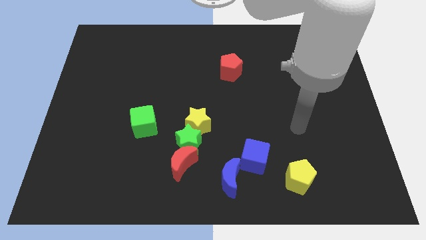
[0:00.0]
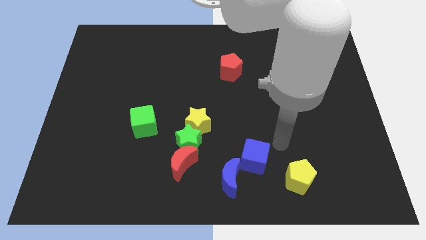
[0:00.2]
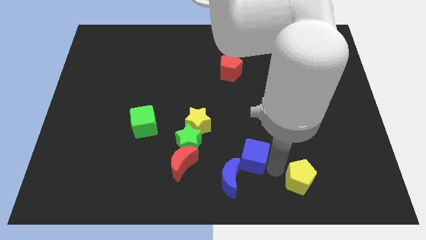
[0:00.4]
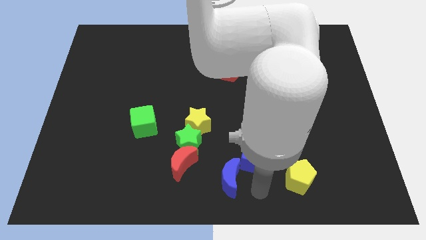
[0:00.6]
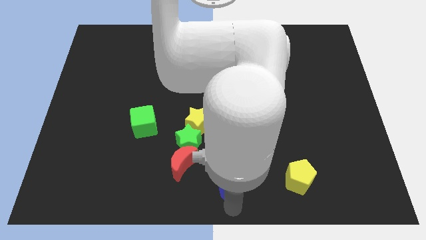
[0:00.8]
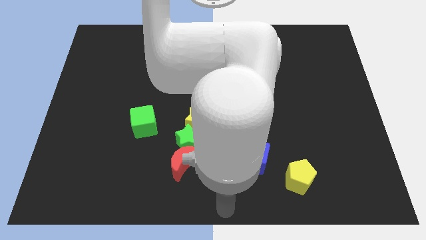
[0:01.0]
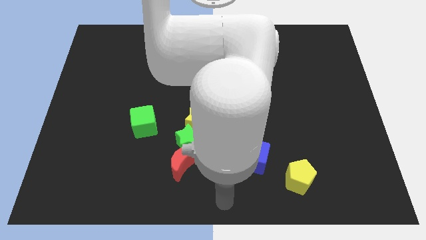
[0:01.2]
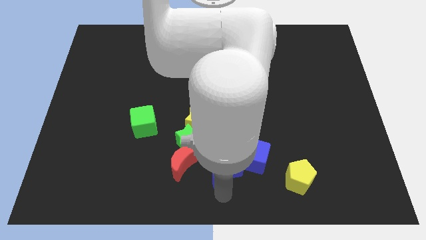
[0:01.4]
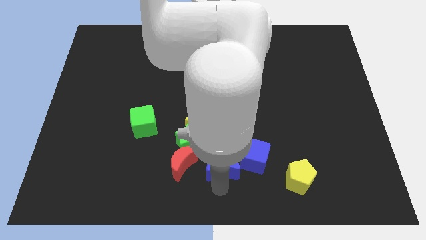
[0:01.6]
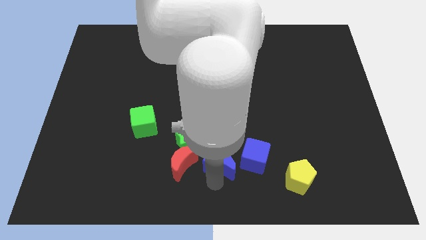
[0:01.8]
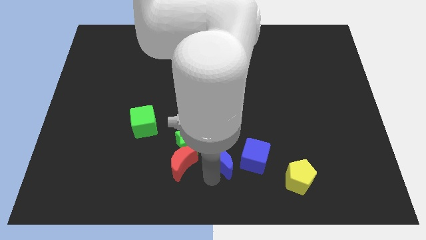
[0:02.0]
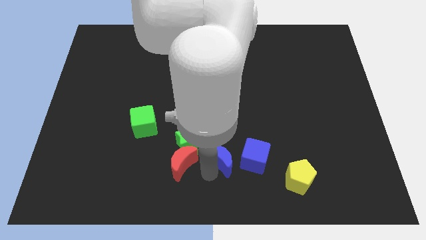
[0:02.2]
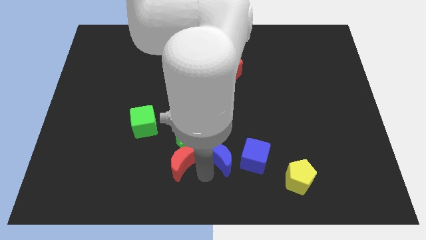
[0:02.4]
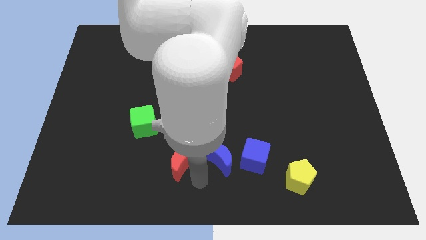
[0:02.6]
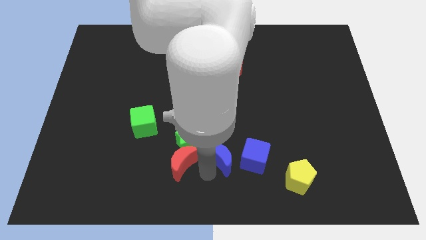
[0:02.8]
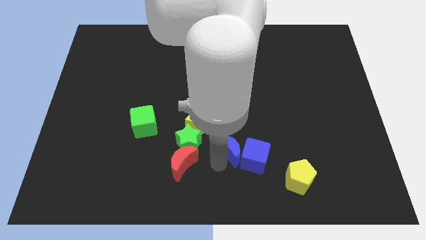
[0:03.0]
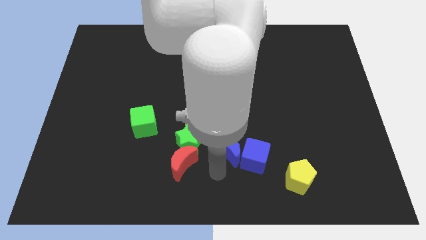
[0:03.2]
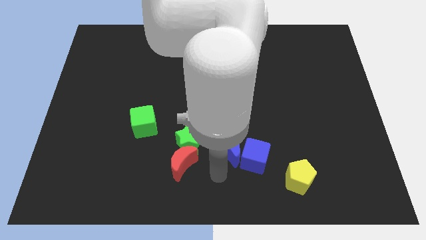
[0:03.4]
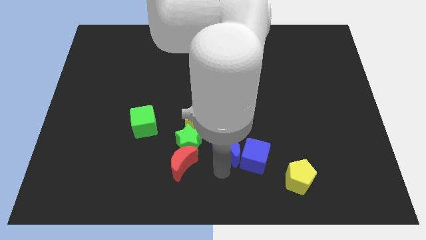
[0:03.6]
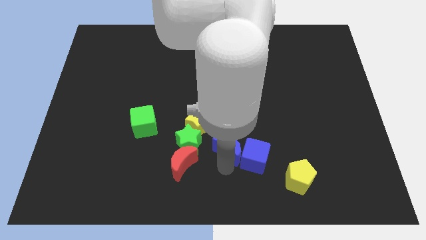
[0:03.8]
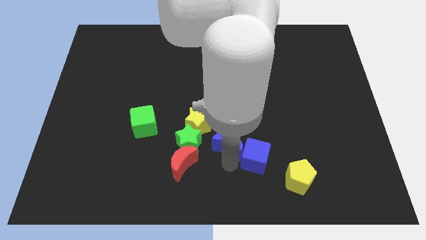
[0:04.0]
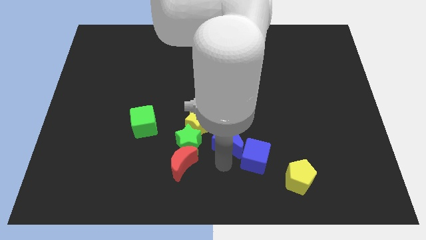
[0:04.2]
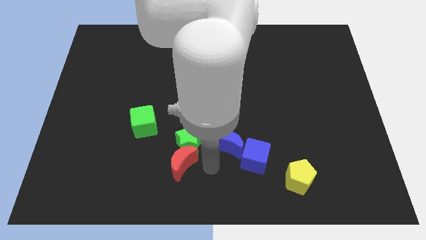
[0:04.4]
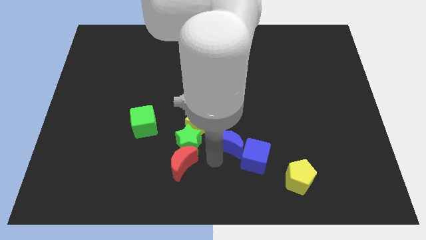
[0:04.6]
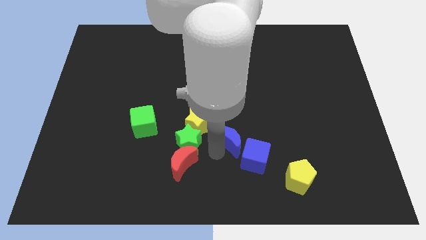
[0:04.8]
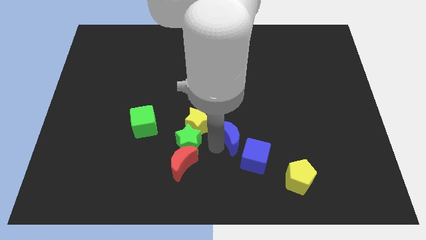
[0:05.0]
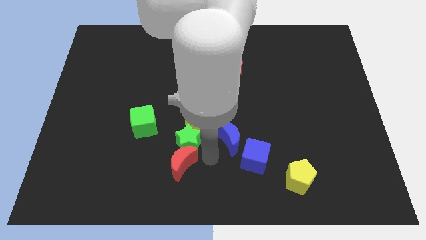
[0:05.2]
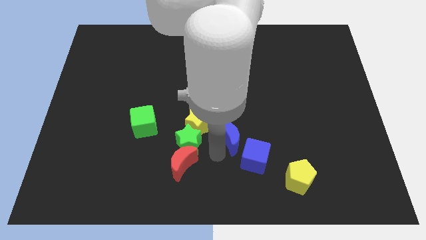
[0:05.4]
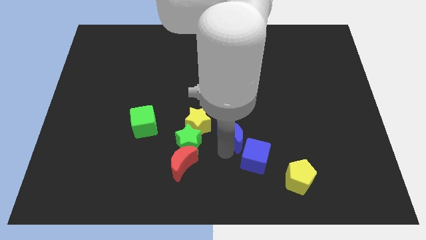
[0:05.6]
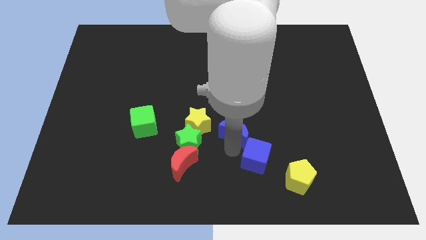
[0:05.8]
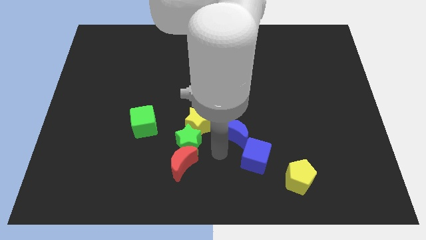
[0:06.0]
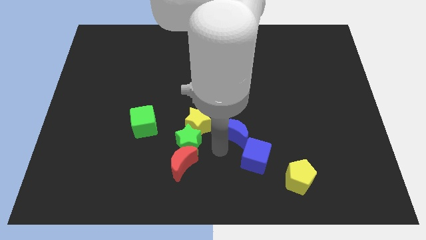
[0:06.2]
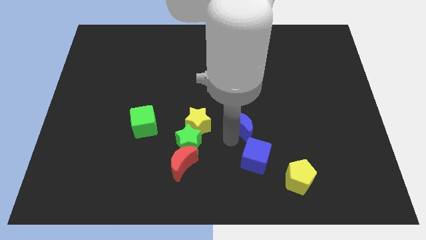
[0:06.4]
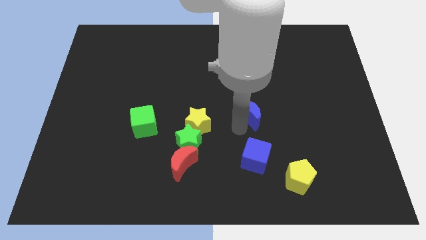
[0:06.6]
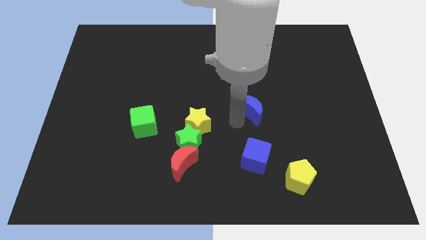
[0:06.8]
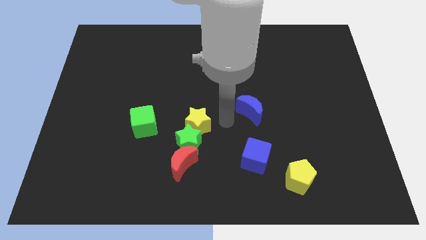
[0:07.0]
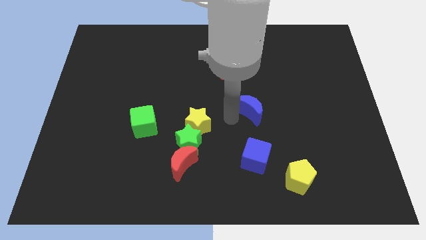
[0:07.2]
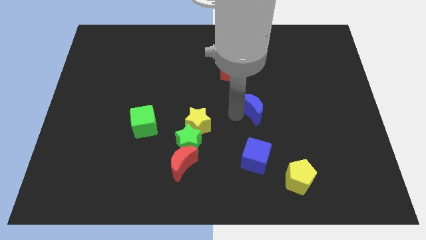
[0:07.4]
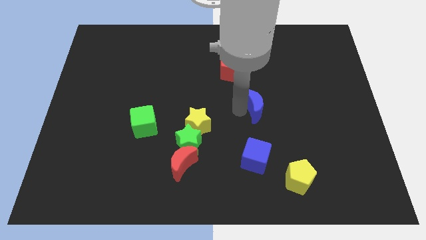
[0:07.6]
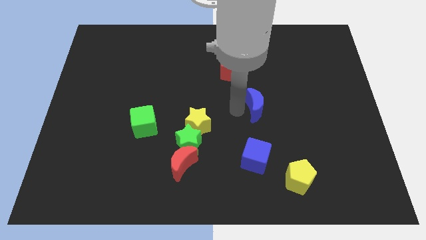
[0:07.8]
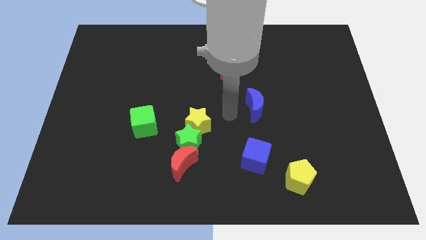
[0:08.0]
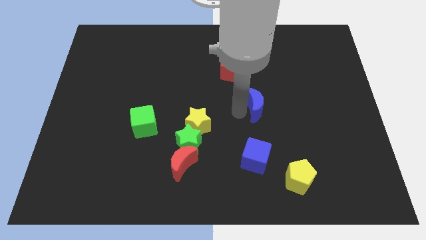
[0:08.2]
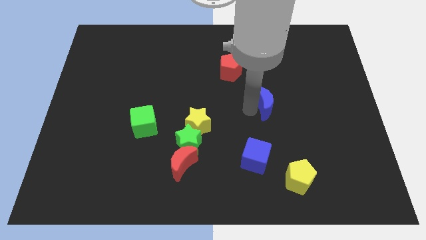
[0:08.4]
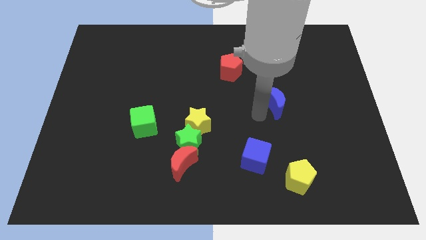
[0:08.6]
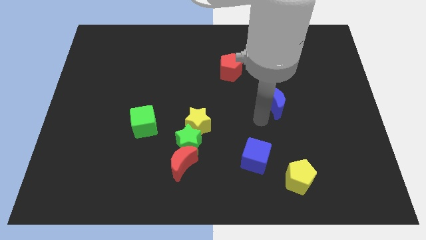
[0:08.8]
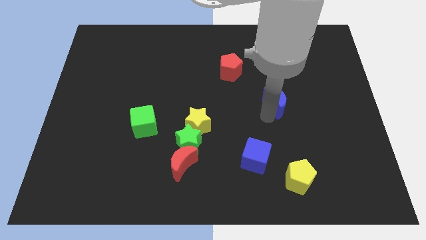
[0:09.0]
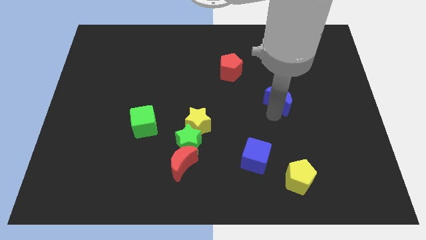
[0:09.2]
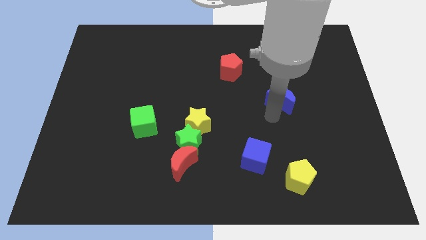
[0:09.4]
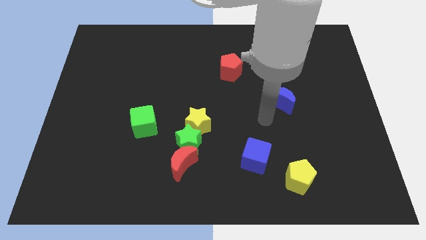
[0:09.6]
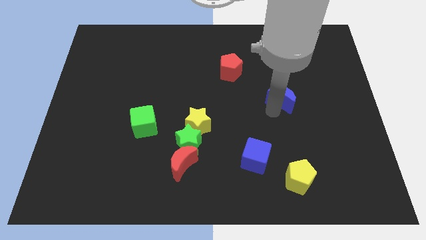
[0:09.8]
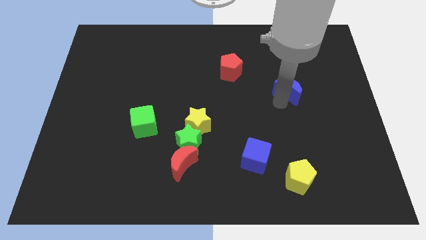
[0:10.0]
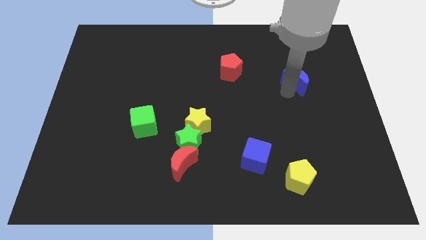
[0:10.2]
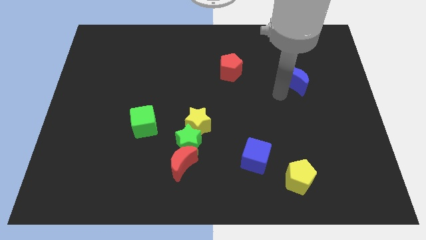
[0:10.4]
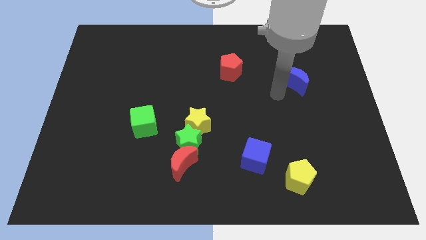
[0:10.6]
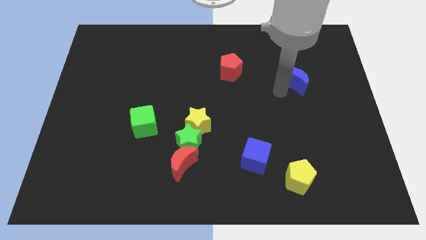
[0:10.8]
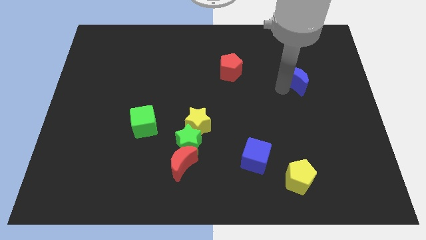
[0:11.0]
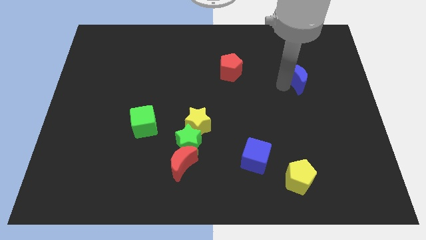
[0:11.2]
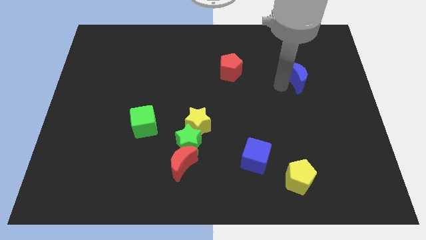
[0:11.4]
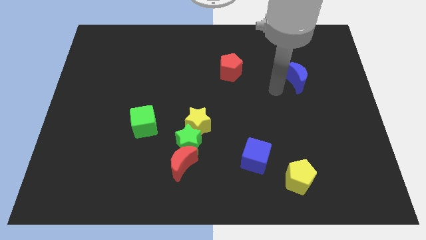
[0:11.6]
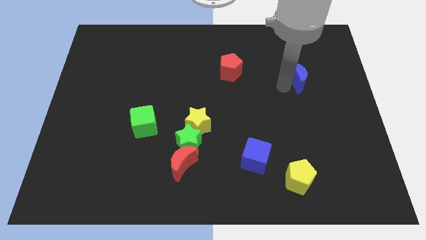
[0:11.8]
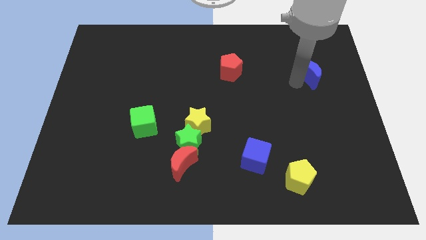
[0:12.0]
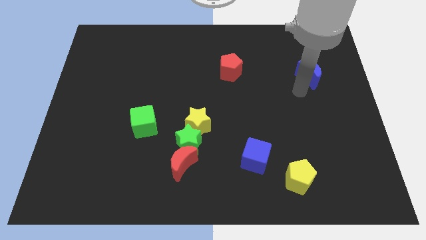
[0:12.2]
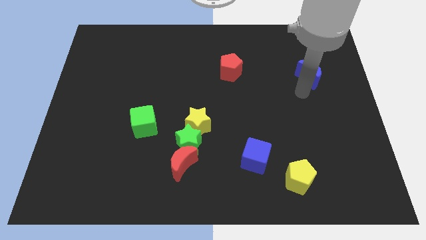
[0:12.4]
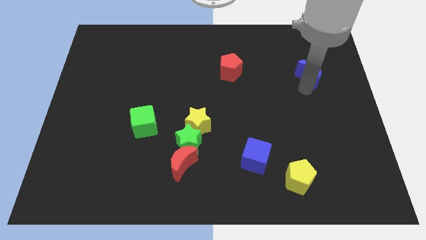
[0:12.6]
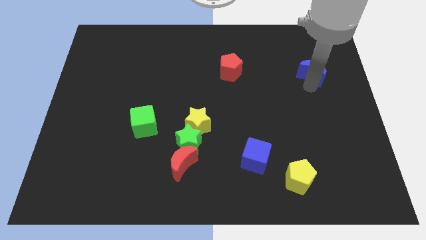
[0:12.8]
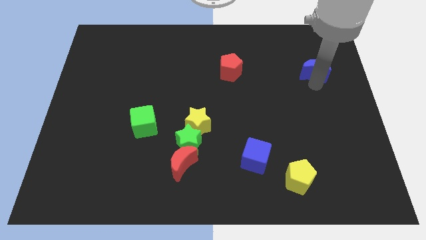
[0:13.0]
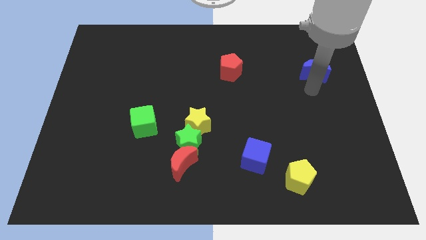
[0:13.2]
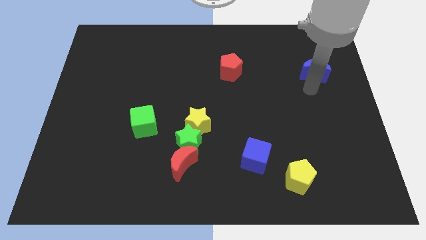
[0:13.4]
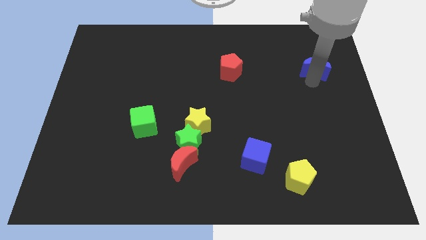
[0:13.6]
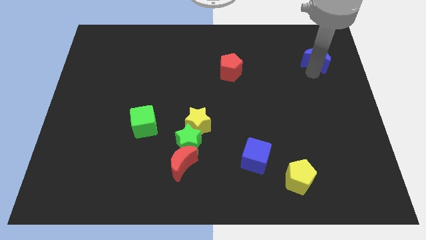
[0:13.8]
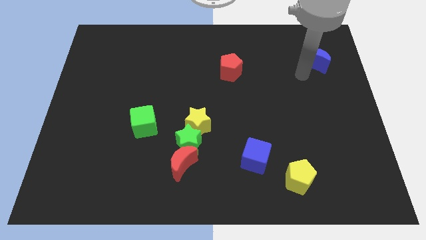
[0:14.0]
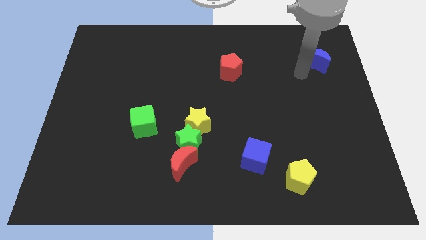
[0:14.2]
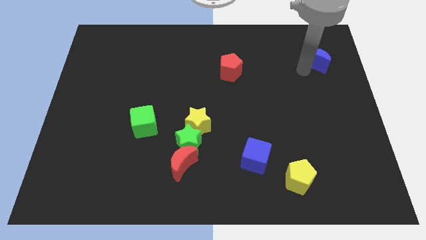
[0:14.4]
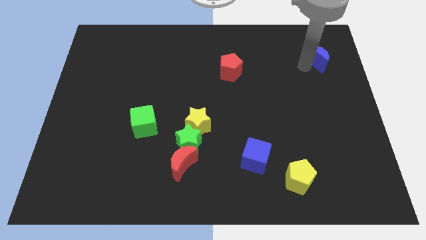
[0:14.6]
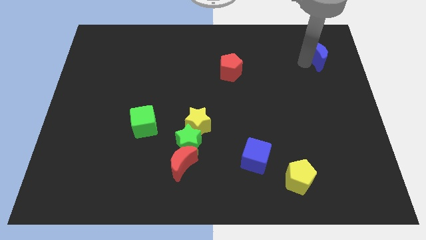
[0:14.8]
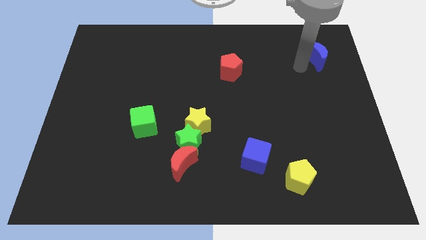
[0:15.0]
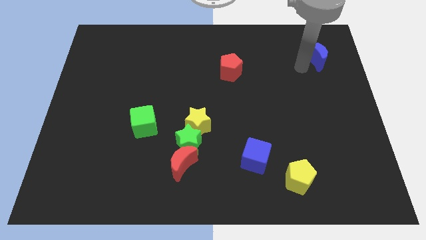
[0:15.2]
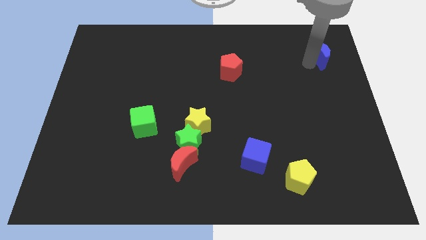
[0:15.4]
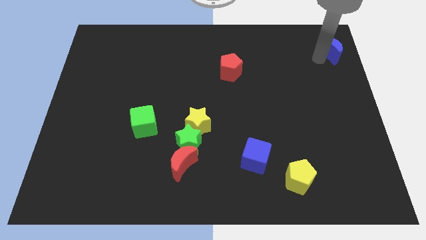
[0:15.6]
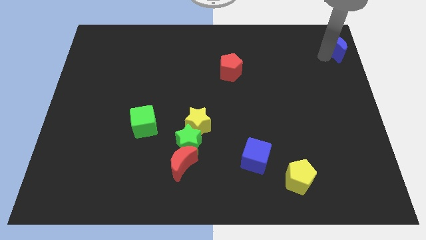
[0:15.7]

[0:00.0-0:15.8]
put the blue moon to the upper right corner
